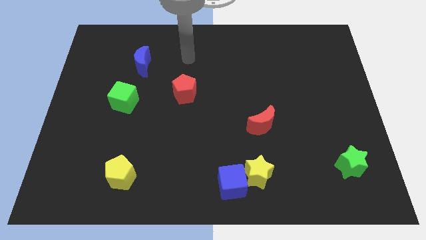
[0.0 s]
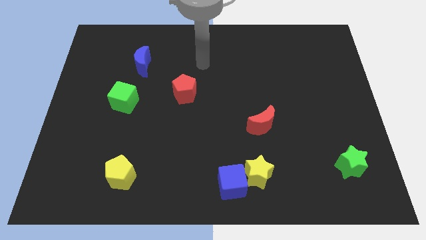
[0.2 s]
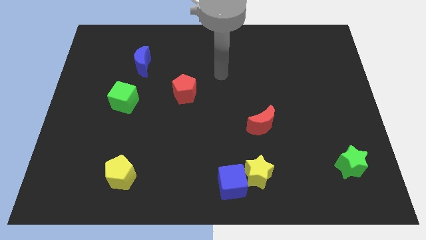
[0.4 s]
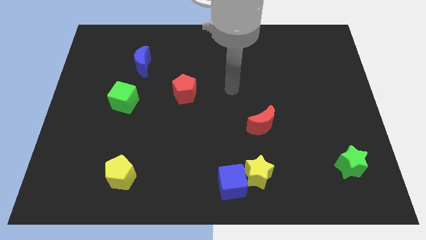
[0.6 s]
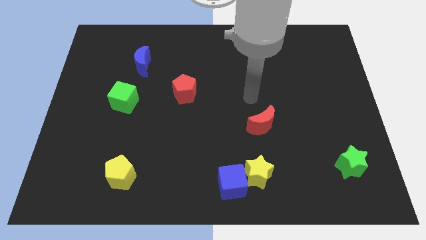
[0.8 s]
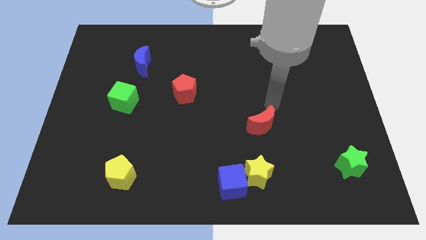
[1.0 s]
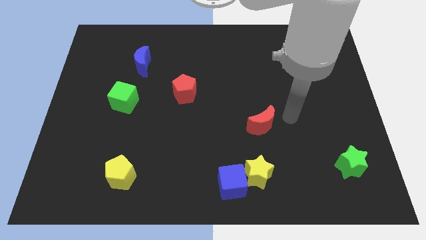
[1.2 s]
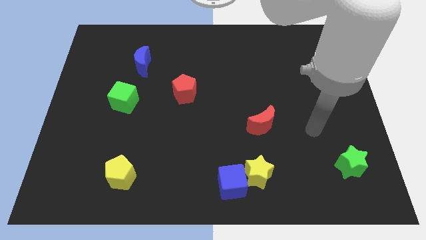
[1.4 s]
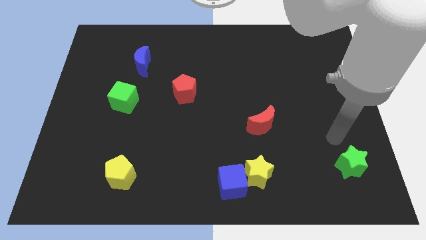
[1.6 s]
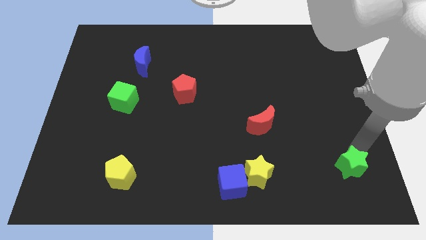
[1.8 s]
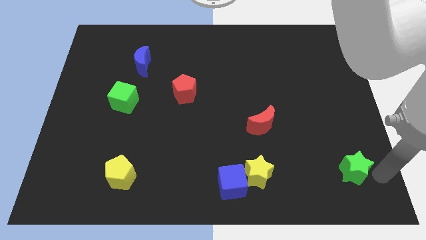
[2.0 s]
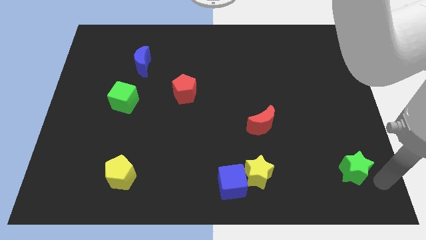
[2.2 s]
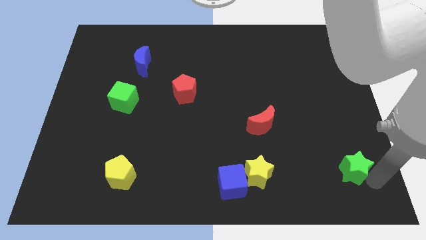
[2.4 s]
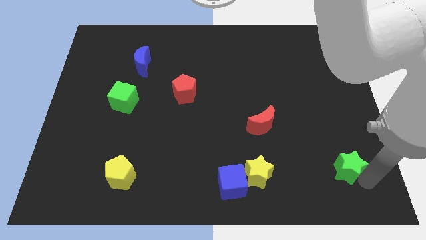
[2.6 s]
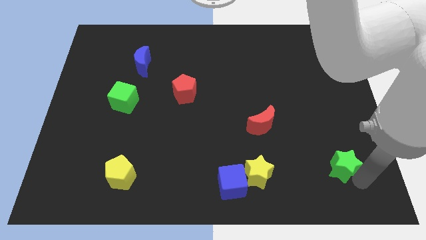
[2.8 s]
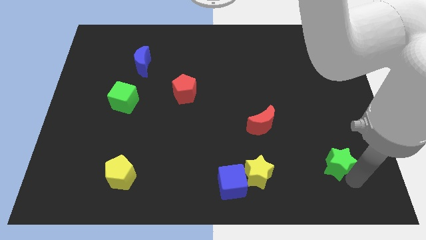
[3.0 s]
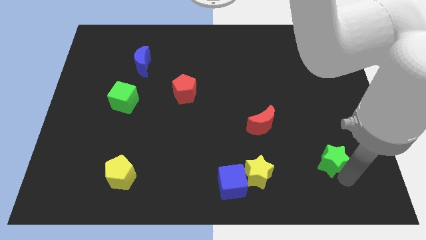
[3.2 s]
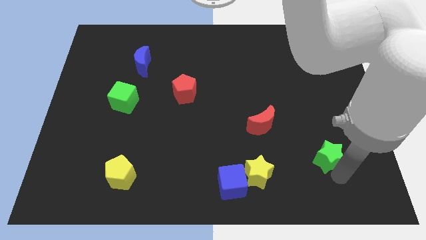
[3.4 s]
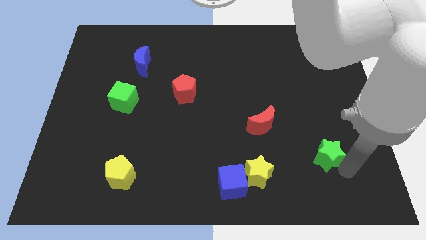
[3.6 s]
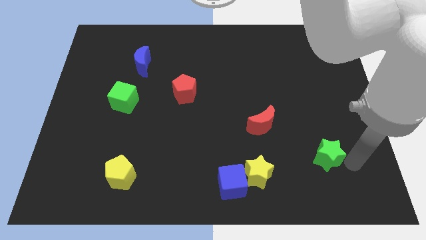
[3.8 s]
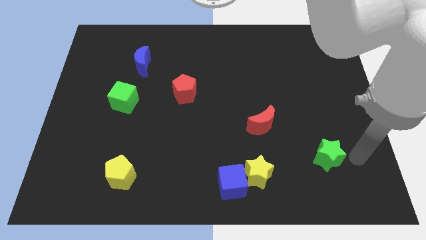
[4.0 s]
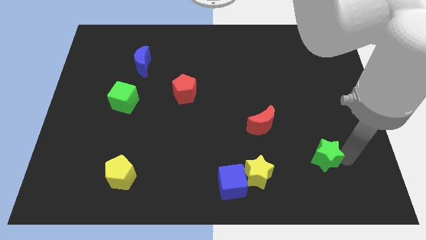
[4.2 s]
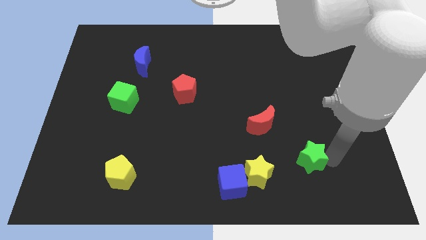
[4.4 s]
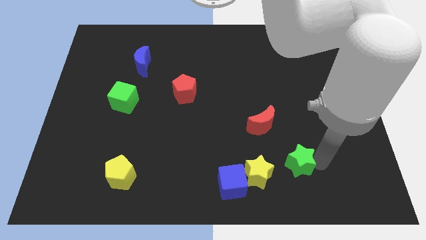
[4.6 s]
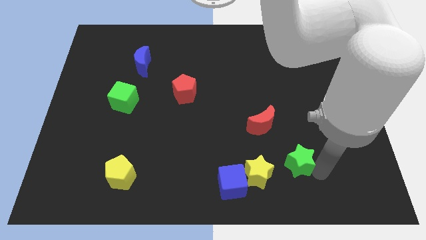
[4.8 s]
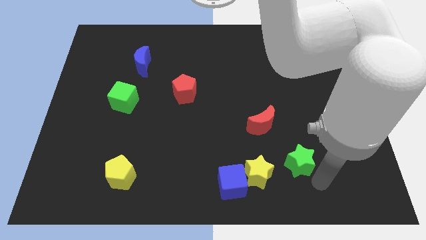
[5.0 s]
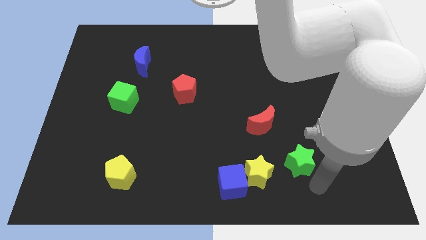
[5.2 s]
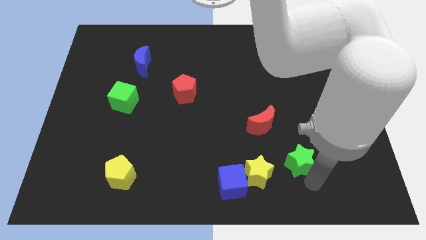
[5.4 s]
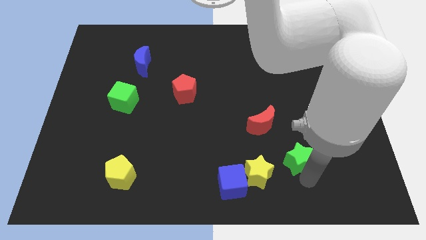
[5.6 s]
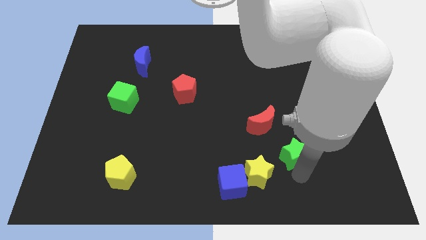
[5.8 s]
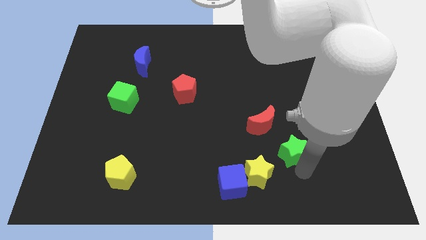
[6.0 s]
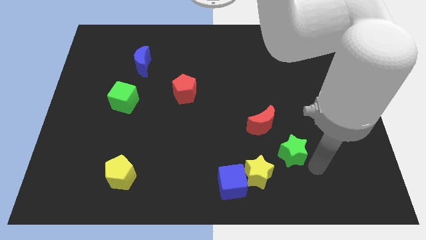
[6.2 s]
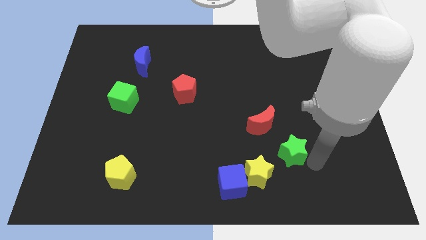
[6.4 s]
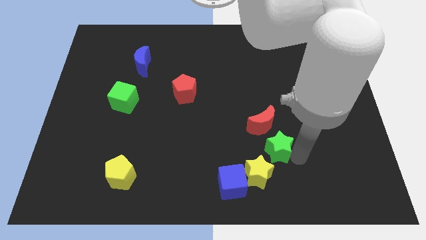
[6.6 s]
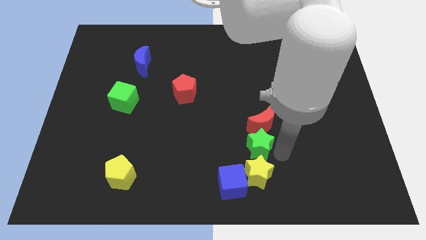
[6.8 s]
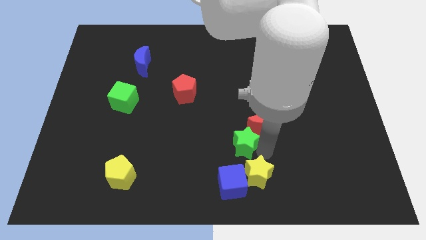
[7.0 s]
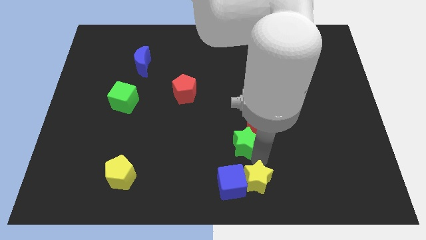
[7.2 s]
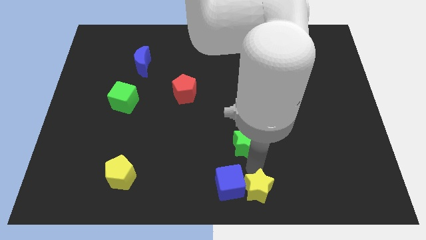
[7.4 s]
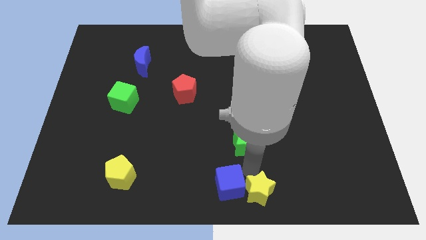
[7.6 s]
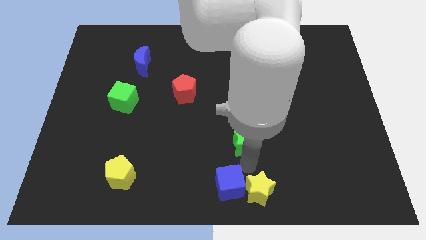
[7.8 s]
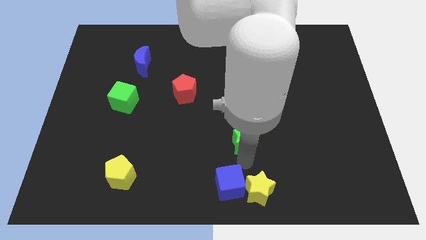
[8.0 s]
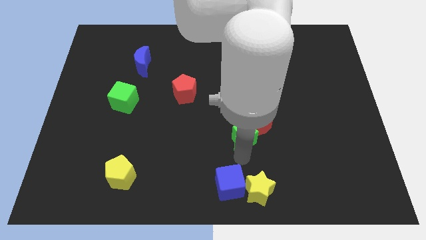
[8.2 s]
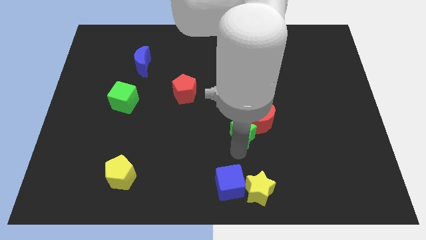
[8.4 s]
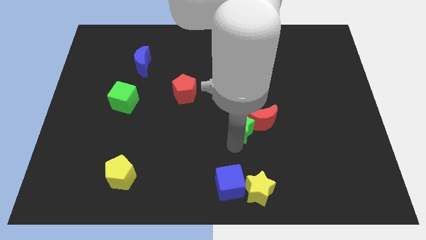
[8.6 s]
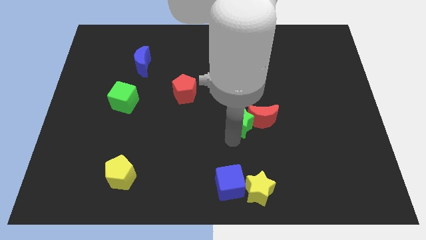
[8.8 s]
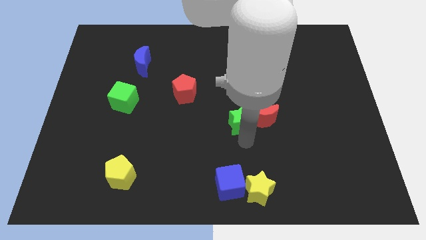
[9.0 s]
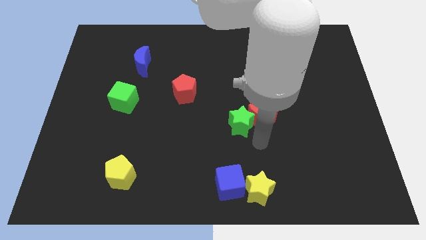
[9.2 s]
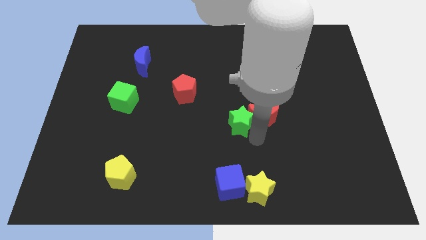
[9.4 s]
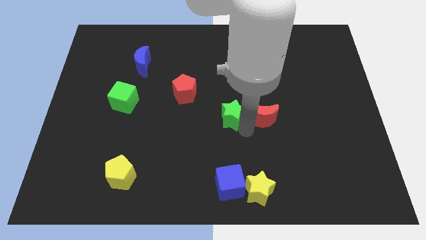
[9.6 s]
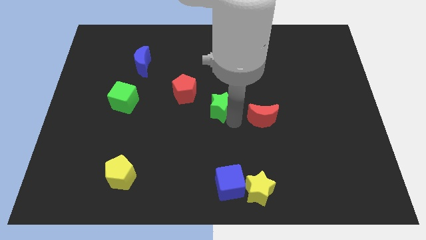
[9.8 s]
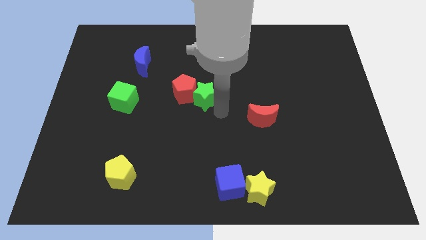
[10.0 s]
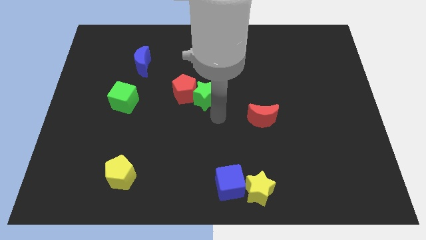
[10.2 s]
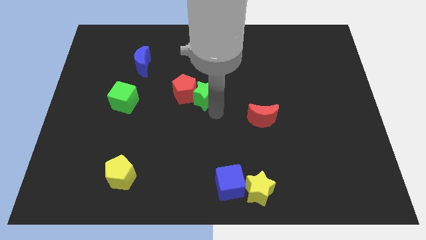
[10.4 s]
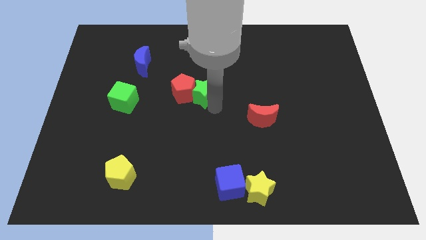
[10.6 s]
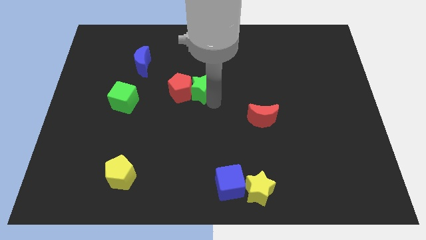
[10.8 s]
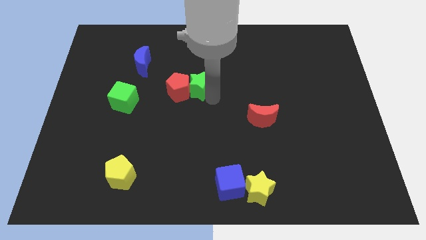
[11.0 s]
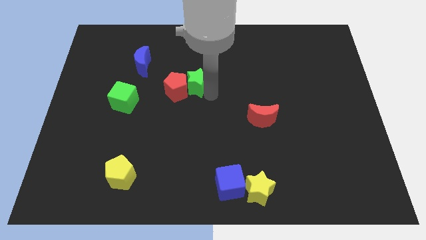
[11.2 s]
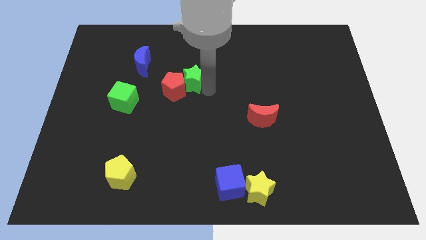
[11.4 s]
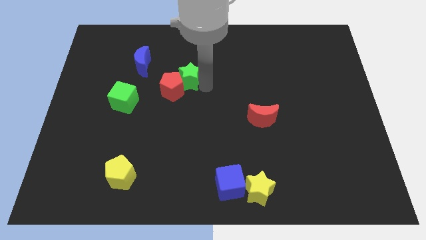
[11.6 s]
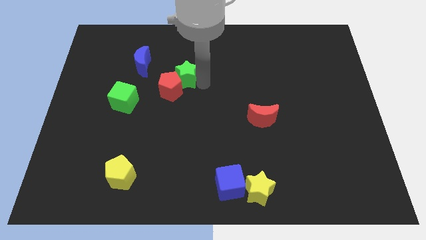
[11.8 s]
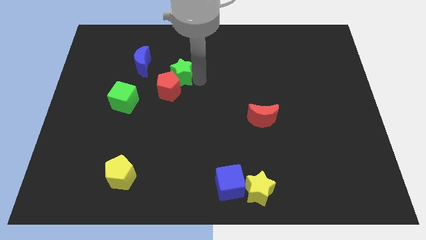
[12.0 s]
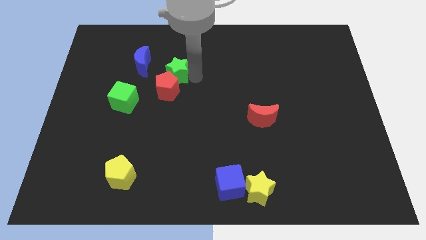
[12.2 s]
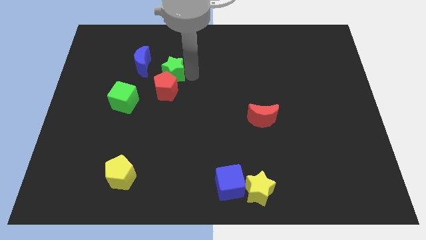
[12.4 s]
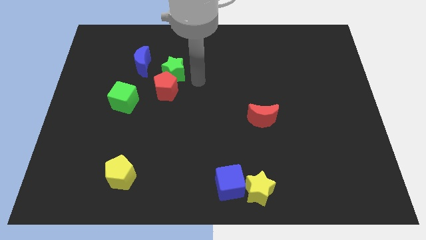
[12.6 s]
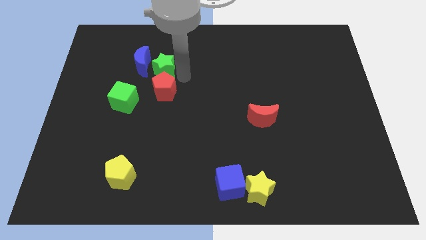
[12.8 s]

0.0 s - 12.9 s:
put the green star towards the blue moon

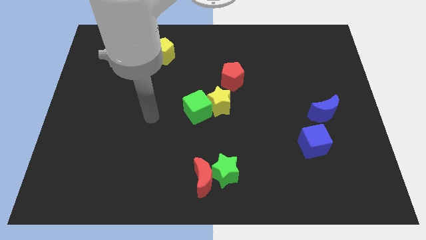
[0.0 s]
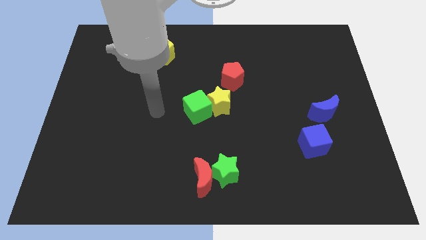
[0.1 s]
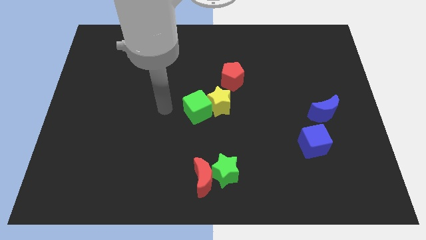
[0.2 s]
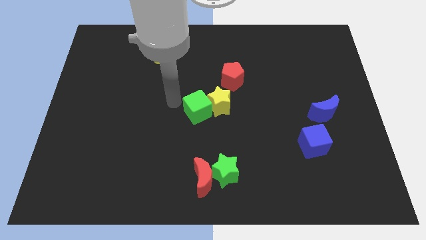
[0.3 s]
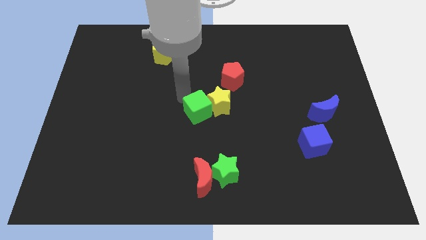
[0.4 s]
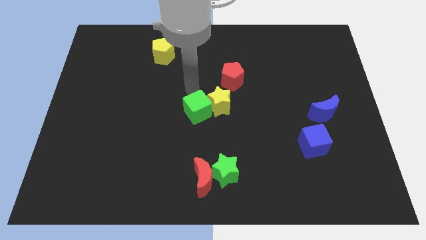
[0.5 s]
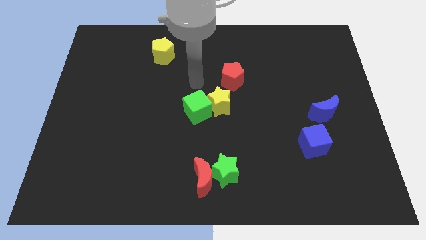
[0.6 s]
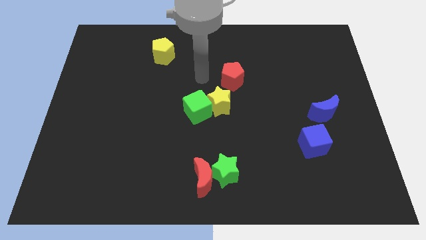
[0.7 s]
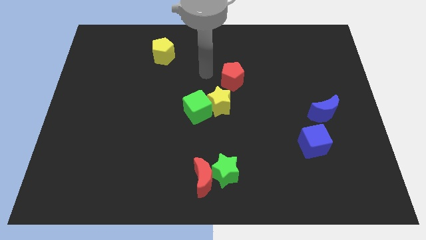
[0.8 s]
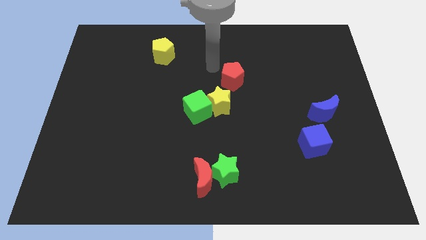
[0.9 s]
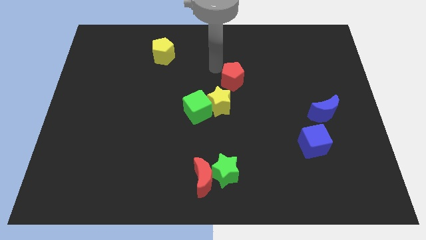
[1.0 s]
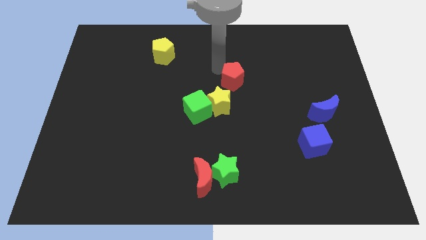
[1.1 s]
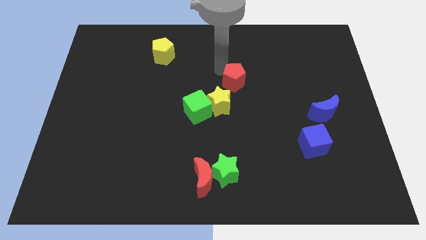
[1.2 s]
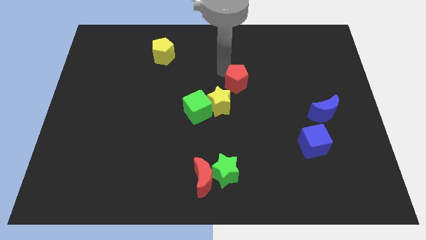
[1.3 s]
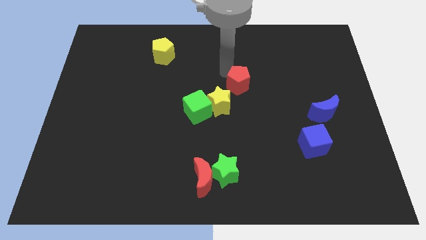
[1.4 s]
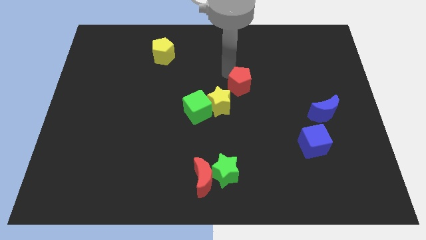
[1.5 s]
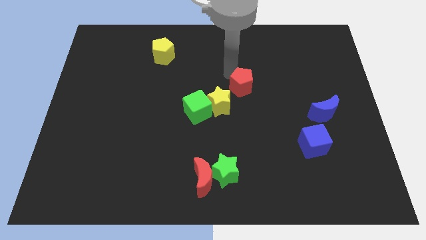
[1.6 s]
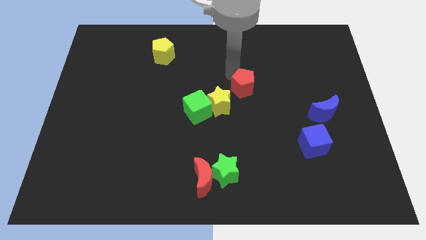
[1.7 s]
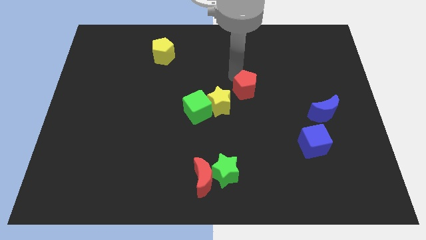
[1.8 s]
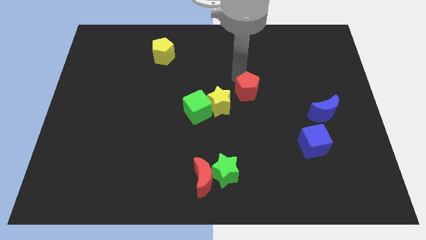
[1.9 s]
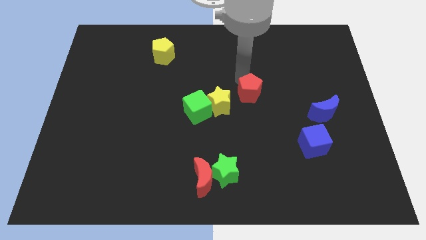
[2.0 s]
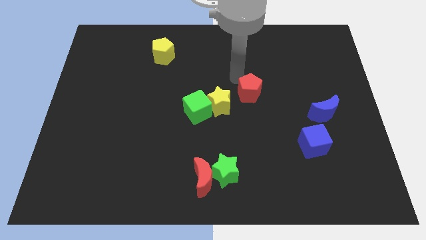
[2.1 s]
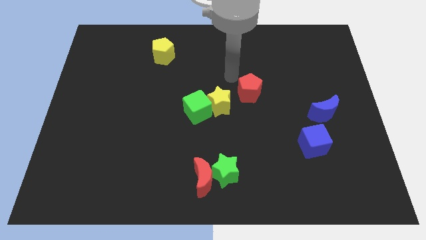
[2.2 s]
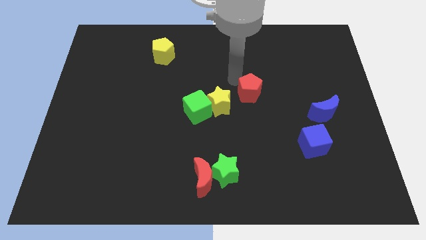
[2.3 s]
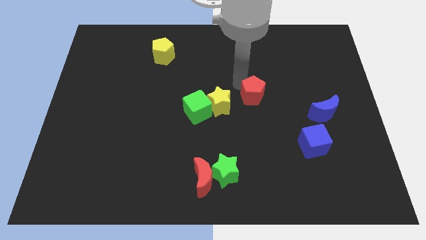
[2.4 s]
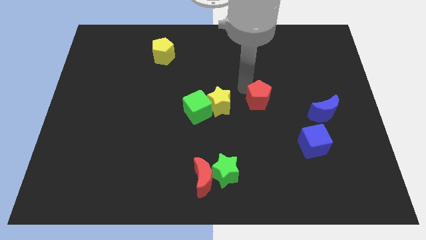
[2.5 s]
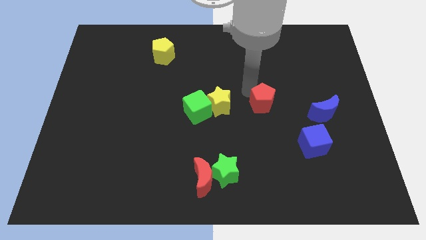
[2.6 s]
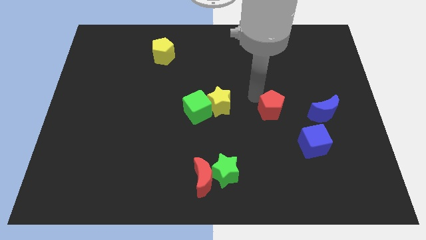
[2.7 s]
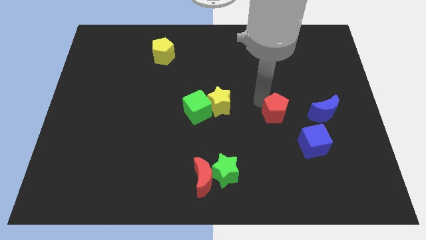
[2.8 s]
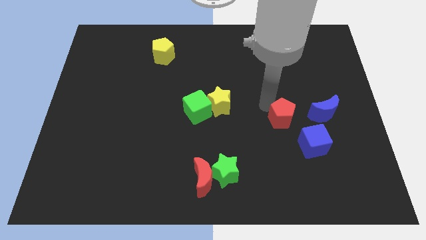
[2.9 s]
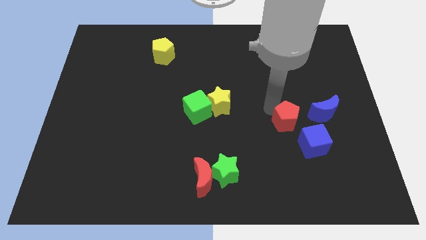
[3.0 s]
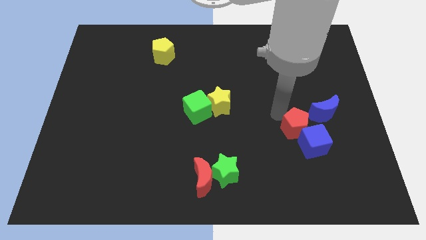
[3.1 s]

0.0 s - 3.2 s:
put the red pentagon towards the blue cube
